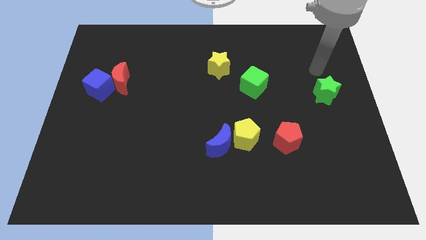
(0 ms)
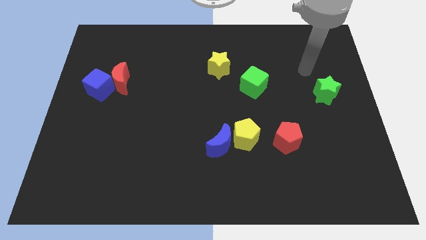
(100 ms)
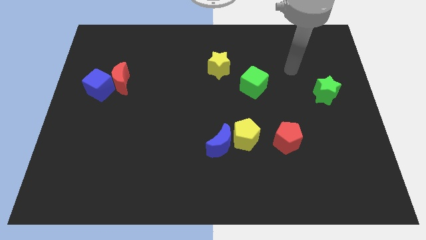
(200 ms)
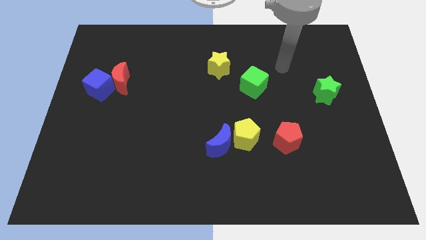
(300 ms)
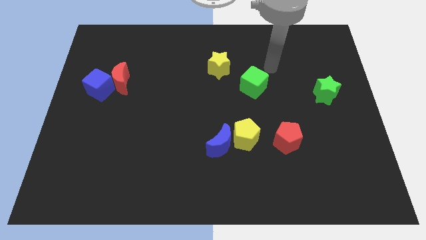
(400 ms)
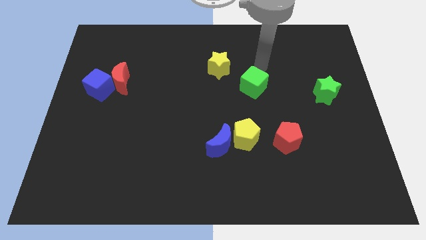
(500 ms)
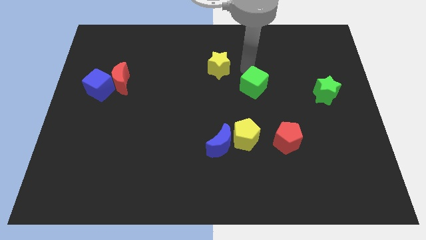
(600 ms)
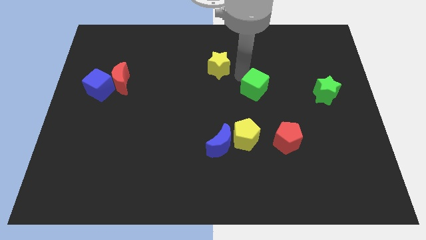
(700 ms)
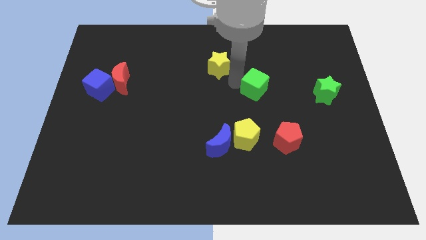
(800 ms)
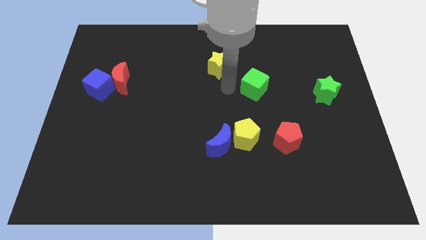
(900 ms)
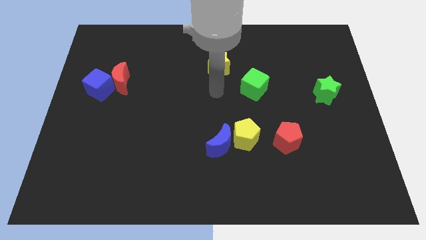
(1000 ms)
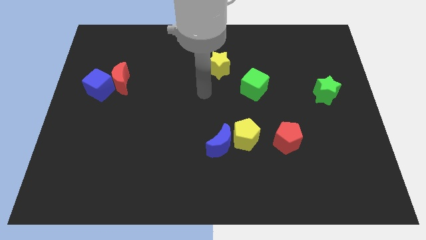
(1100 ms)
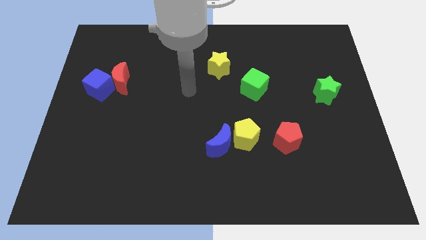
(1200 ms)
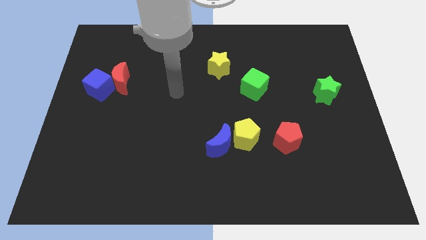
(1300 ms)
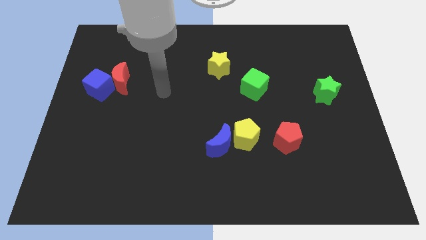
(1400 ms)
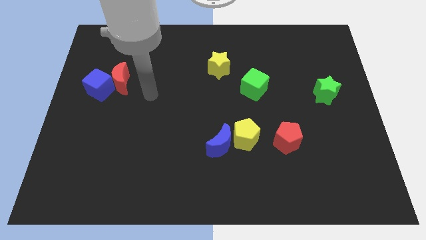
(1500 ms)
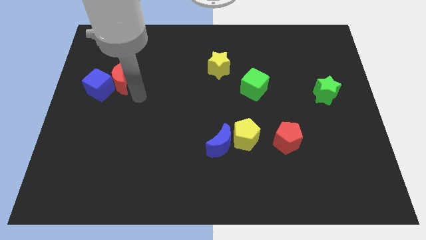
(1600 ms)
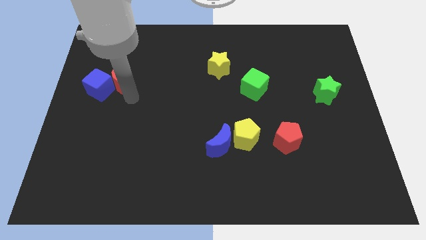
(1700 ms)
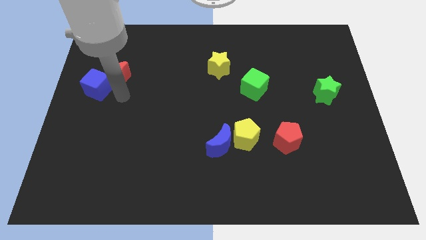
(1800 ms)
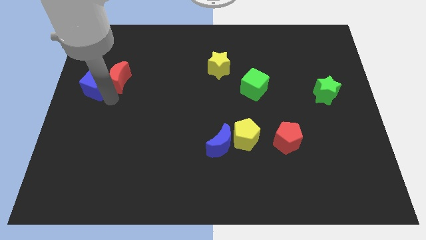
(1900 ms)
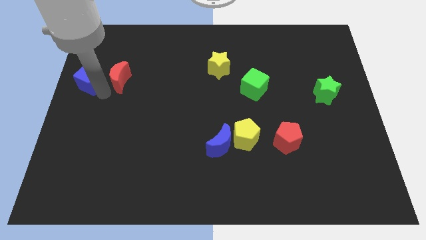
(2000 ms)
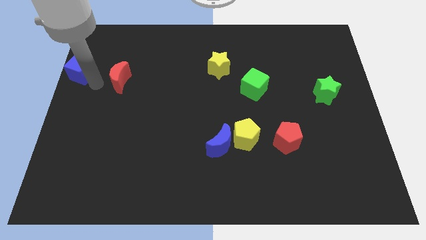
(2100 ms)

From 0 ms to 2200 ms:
separate the red moon from the blue cube

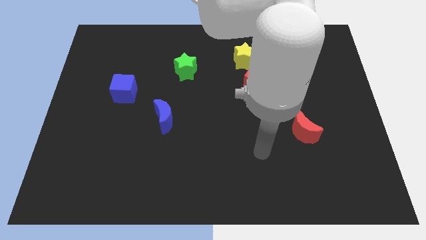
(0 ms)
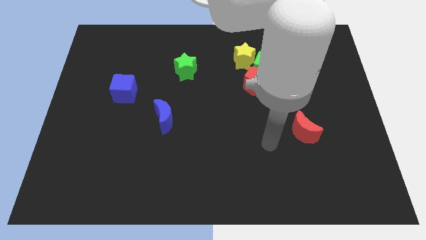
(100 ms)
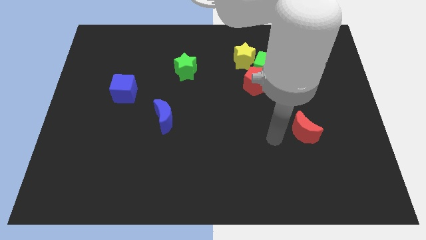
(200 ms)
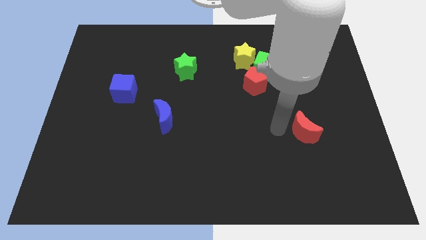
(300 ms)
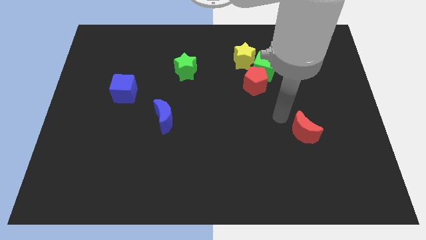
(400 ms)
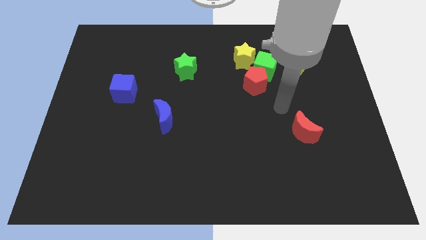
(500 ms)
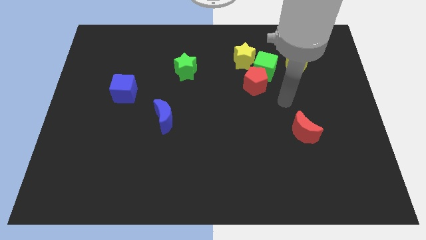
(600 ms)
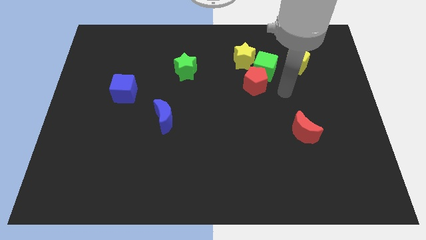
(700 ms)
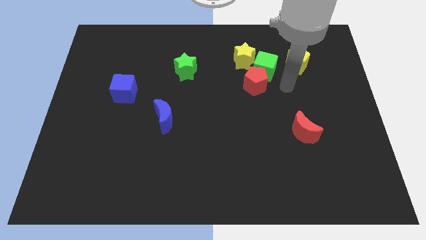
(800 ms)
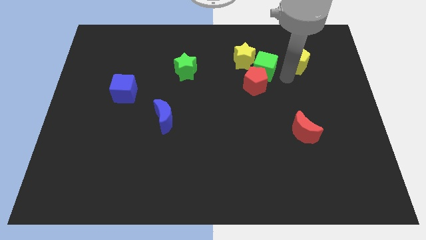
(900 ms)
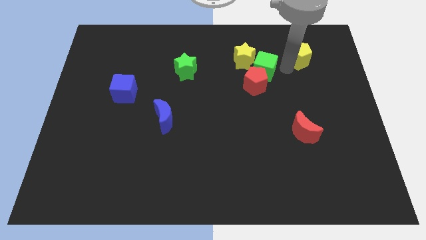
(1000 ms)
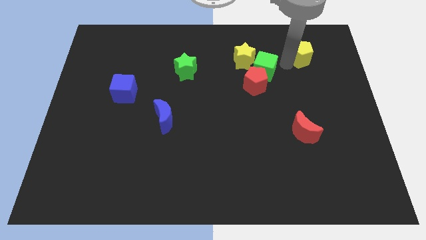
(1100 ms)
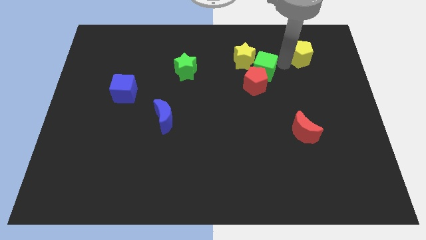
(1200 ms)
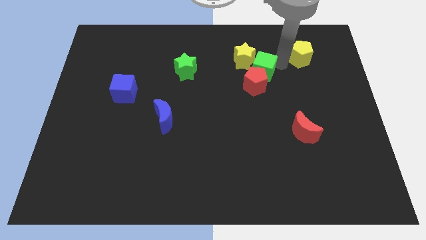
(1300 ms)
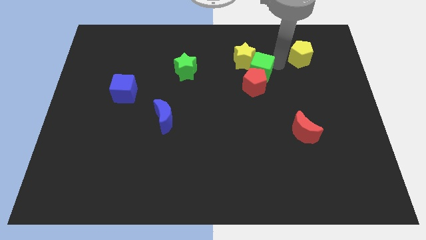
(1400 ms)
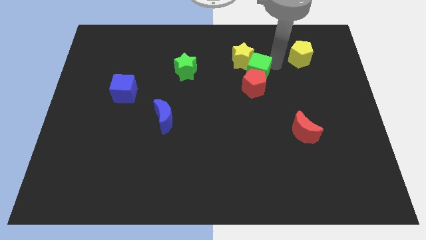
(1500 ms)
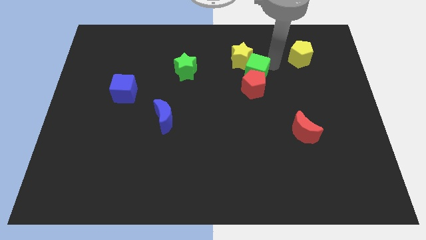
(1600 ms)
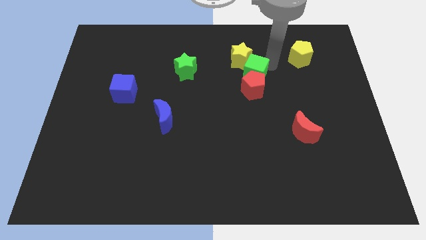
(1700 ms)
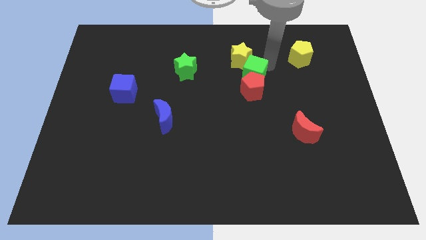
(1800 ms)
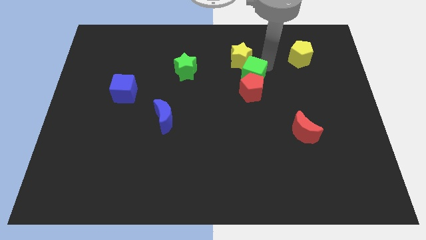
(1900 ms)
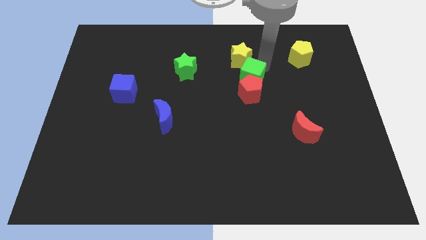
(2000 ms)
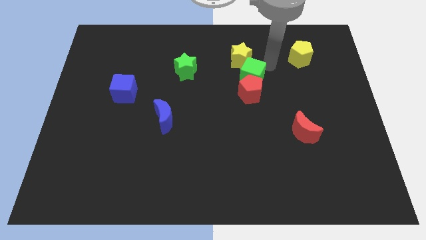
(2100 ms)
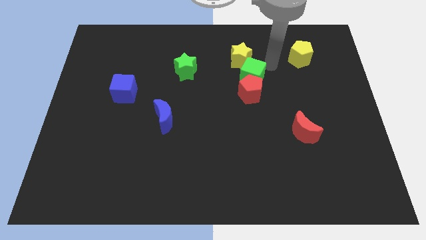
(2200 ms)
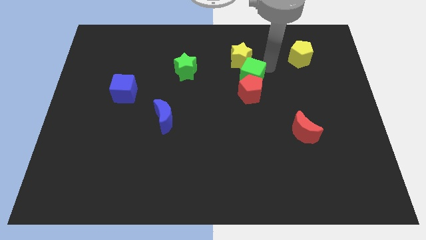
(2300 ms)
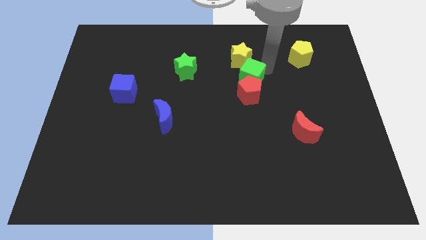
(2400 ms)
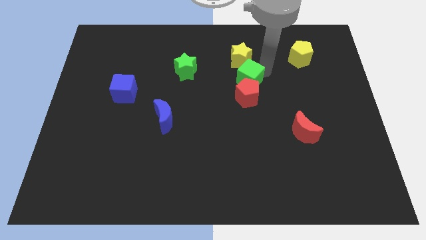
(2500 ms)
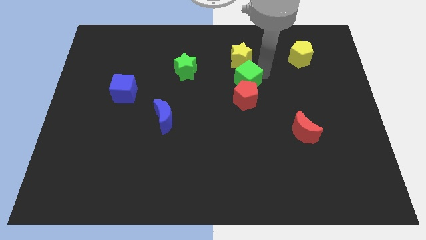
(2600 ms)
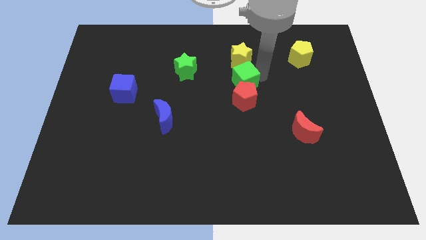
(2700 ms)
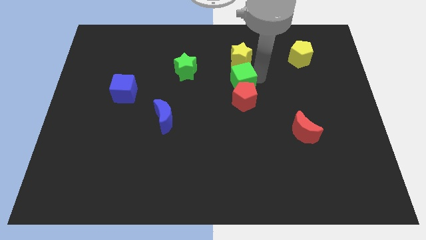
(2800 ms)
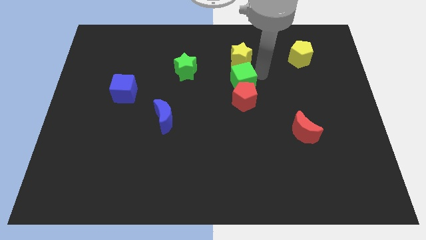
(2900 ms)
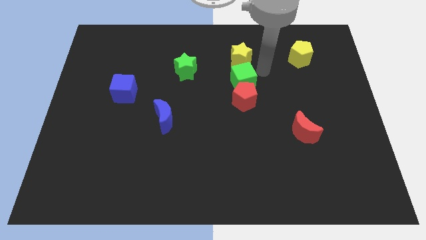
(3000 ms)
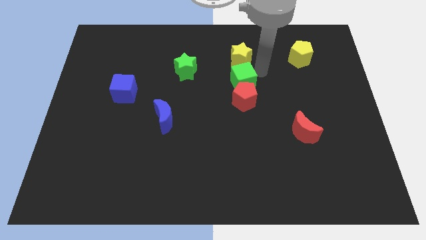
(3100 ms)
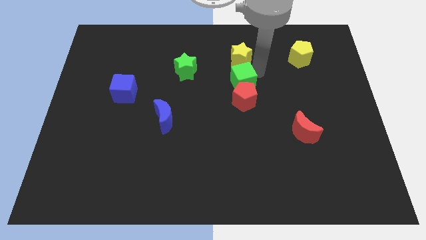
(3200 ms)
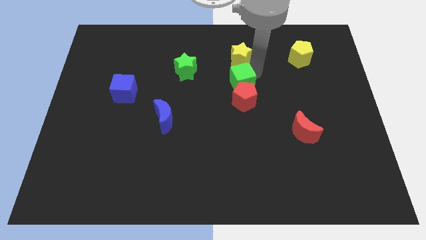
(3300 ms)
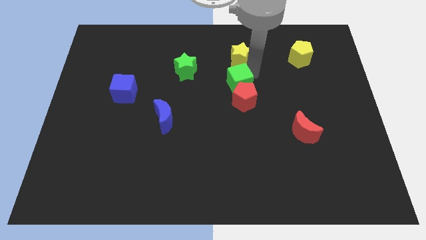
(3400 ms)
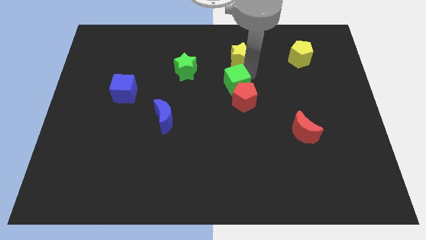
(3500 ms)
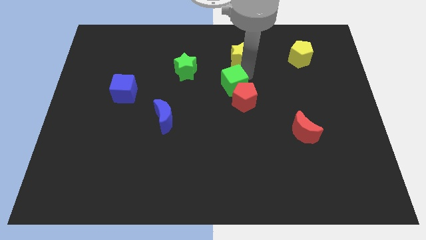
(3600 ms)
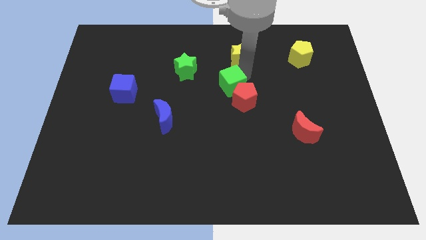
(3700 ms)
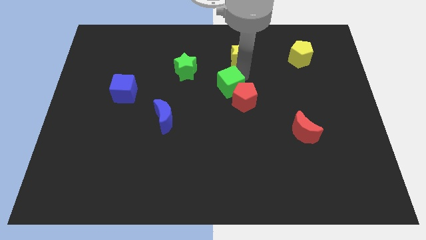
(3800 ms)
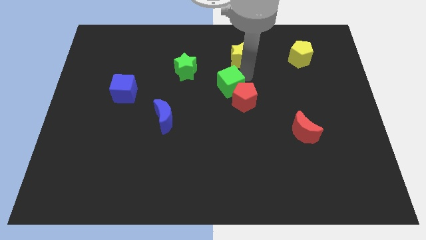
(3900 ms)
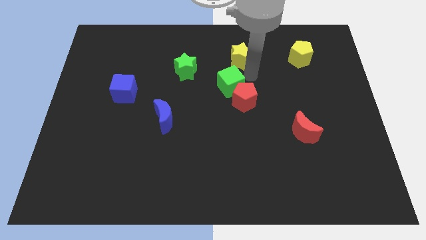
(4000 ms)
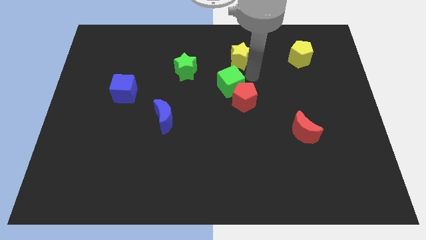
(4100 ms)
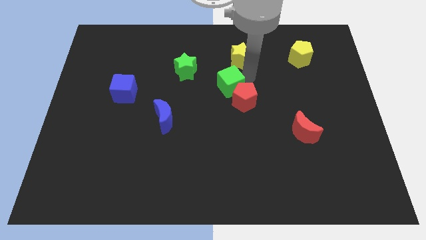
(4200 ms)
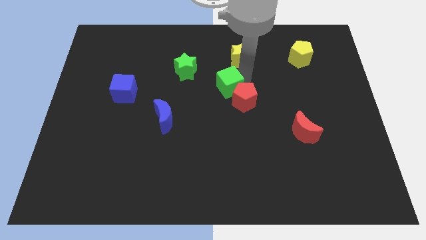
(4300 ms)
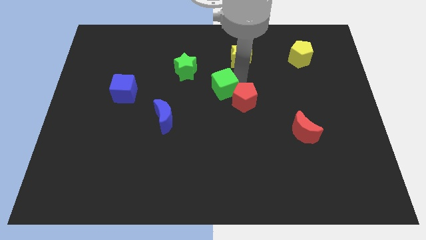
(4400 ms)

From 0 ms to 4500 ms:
separate the green cube from the group of blocks

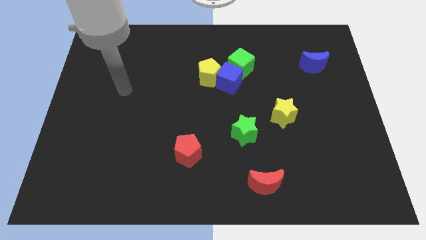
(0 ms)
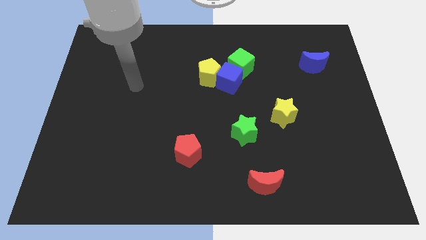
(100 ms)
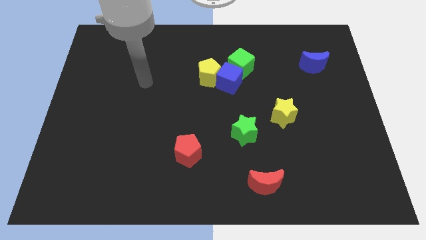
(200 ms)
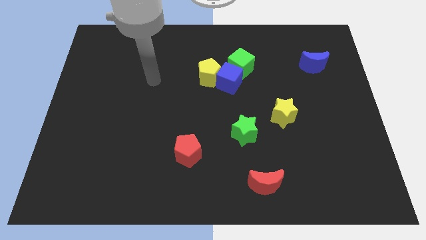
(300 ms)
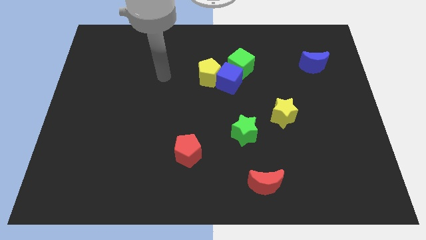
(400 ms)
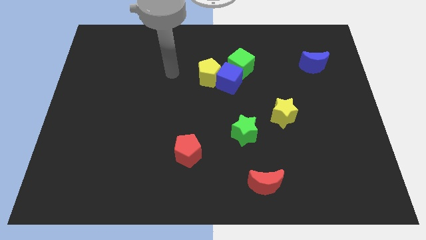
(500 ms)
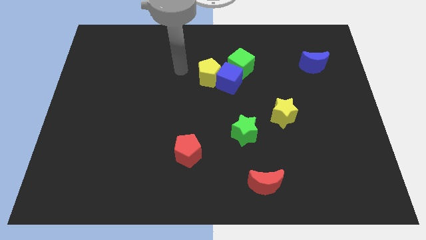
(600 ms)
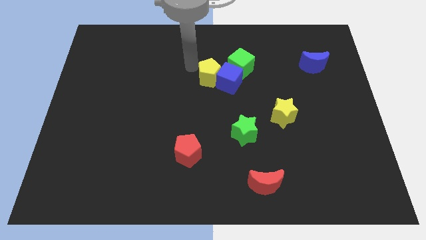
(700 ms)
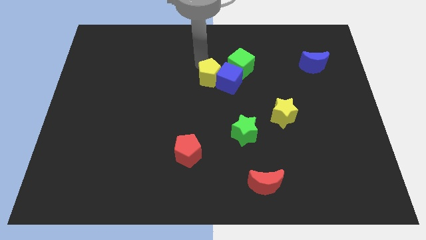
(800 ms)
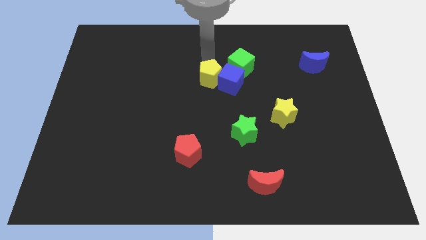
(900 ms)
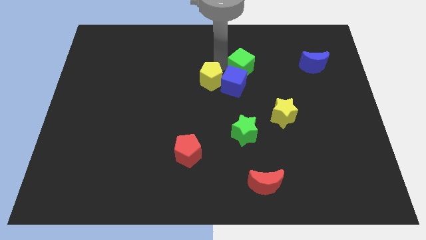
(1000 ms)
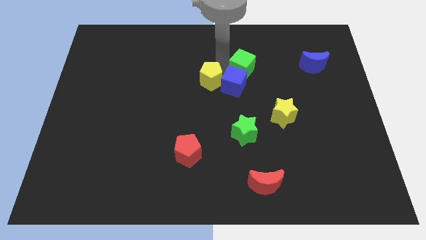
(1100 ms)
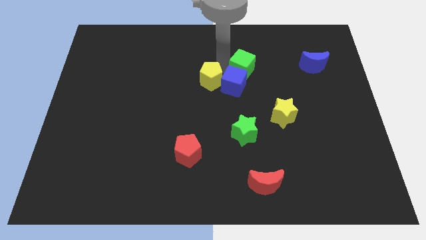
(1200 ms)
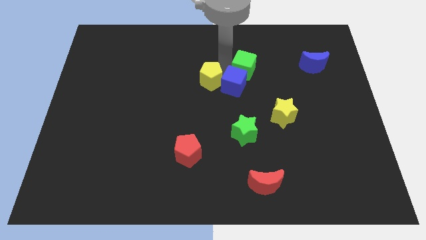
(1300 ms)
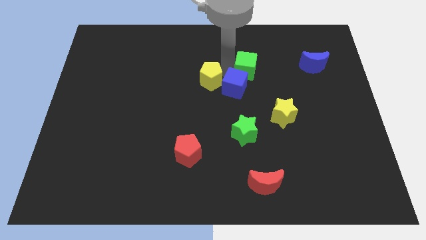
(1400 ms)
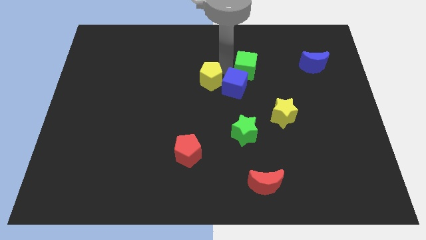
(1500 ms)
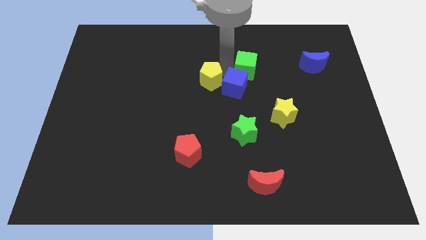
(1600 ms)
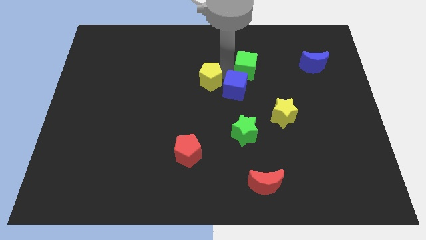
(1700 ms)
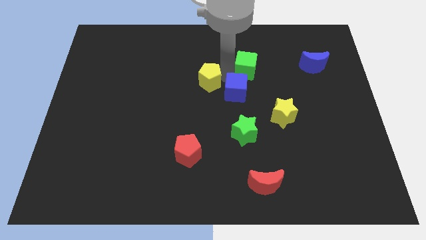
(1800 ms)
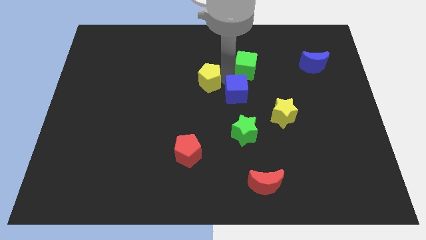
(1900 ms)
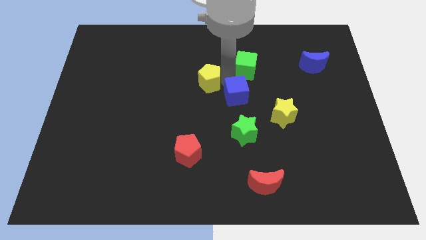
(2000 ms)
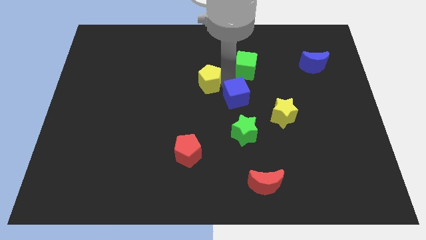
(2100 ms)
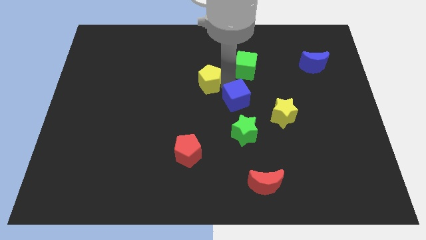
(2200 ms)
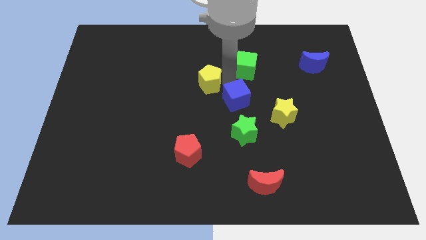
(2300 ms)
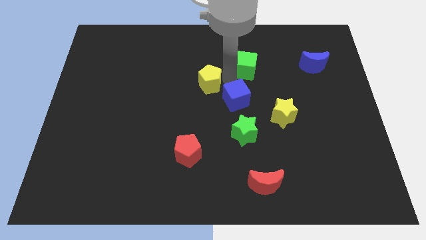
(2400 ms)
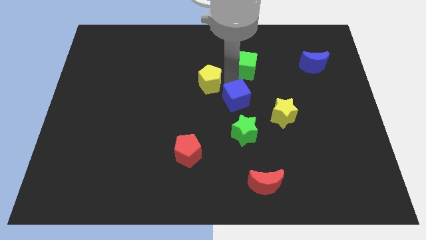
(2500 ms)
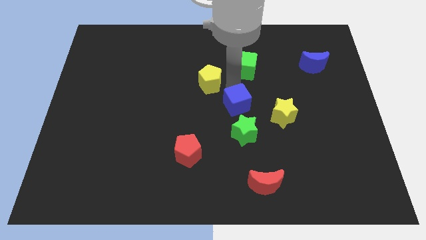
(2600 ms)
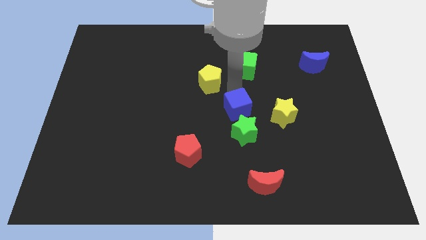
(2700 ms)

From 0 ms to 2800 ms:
move the blue cube away from the yellow pentagon and green cube
